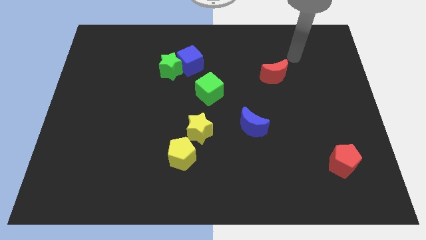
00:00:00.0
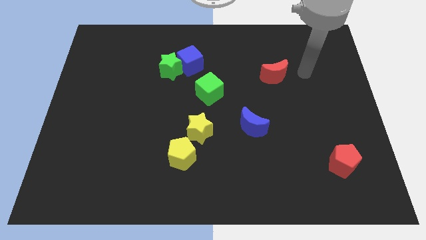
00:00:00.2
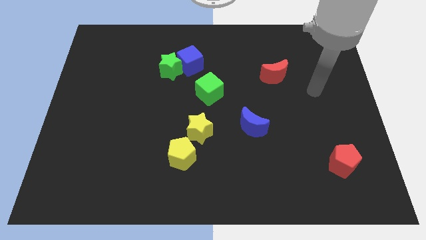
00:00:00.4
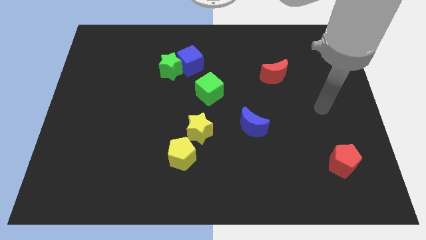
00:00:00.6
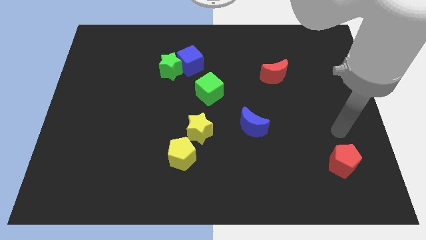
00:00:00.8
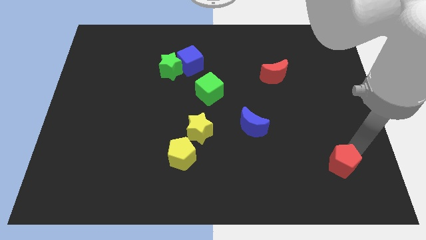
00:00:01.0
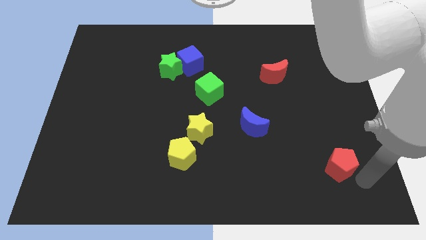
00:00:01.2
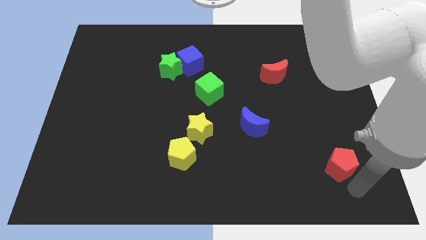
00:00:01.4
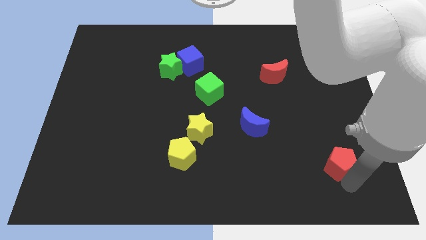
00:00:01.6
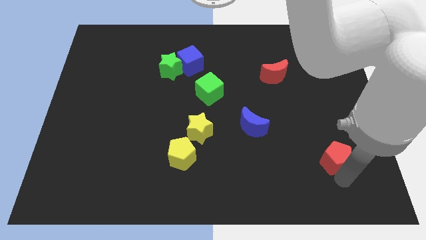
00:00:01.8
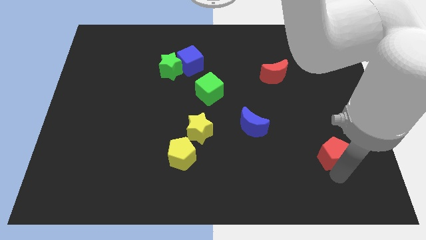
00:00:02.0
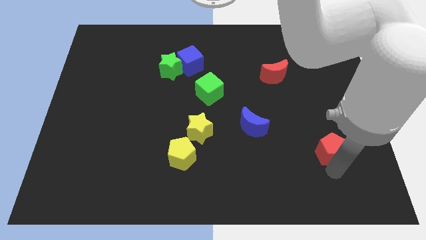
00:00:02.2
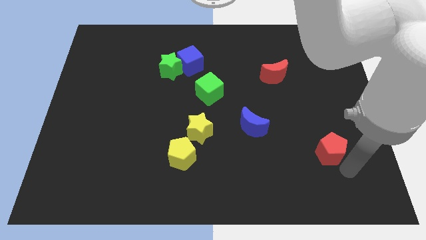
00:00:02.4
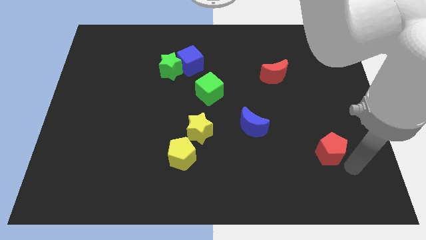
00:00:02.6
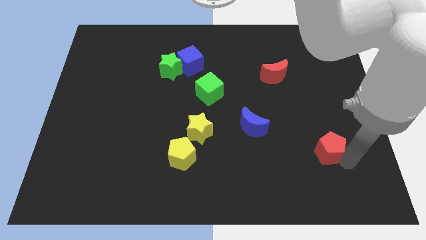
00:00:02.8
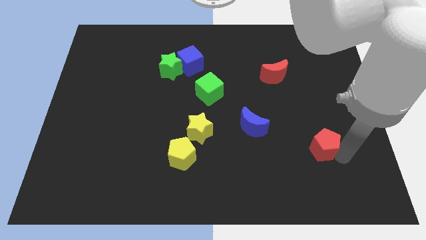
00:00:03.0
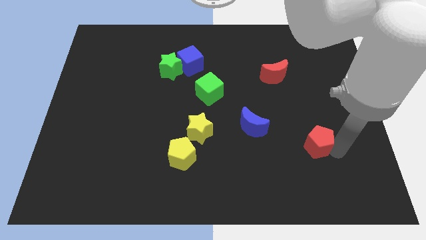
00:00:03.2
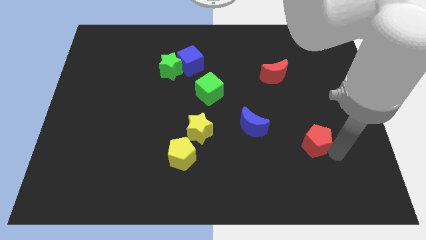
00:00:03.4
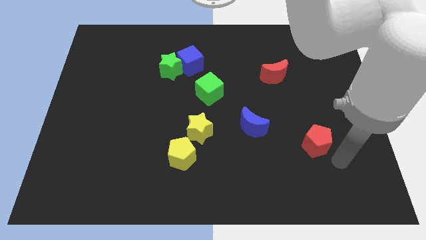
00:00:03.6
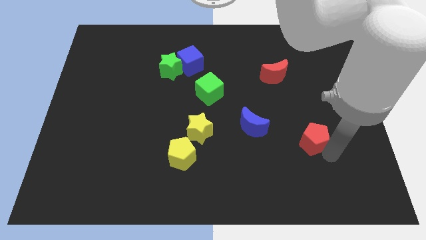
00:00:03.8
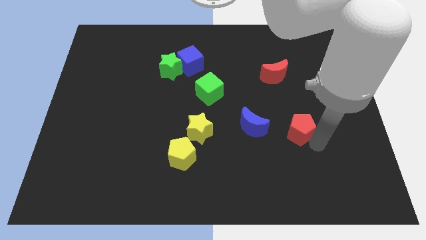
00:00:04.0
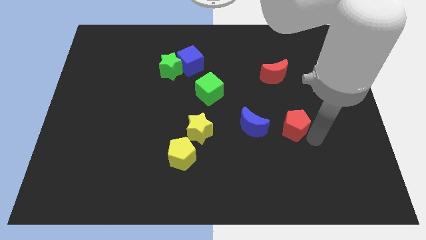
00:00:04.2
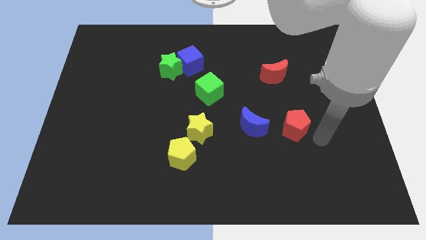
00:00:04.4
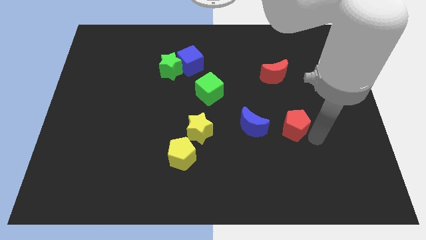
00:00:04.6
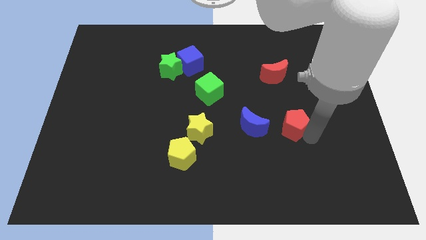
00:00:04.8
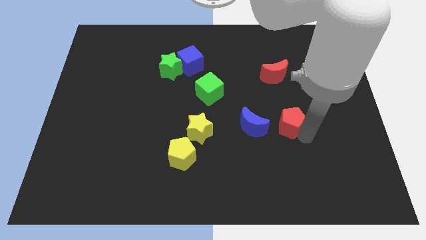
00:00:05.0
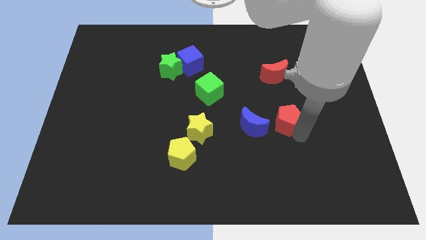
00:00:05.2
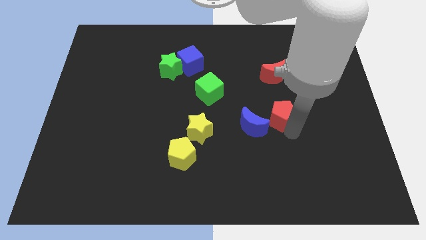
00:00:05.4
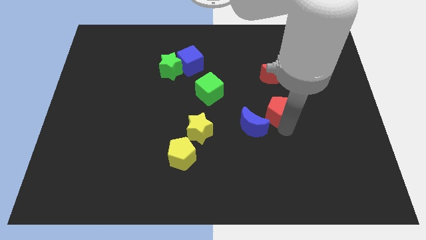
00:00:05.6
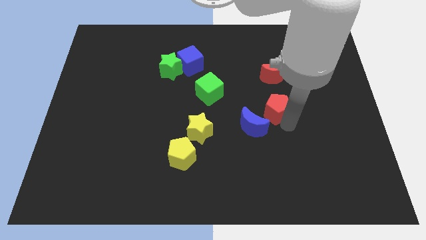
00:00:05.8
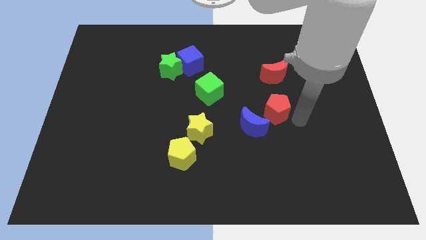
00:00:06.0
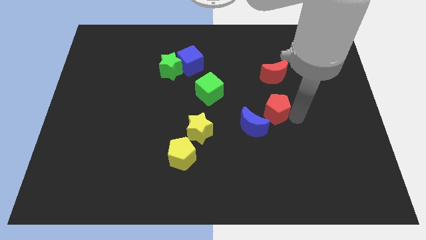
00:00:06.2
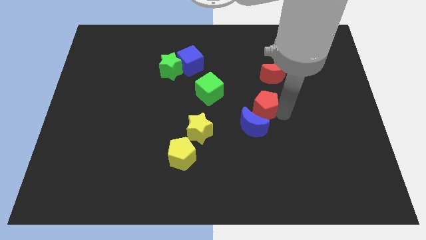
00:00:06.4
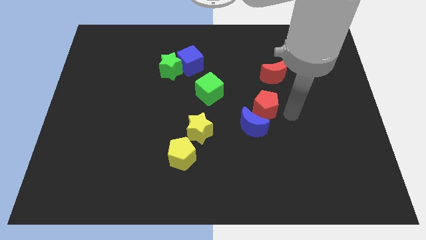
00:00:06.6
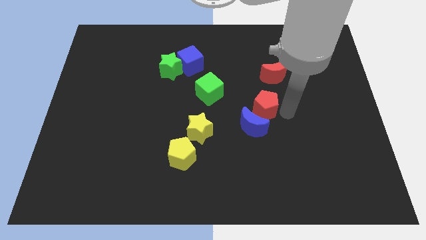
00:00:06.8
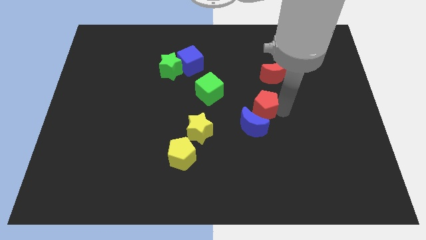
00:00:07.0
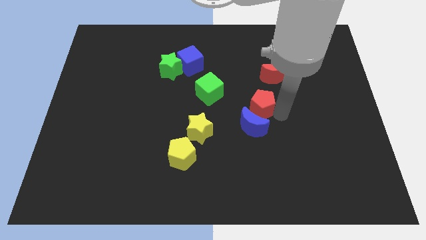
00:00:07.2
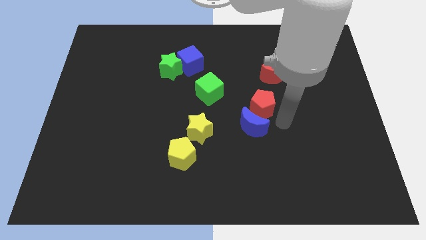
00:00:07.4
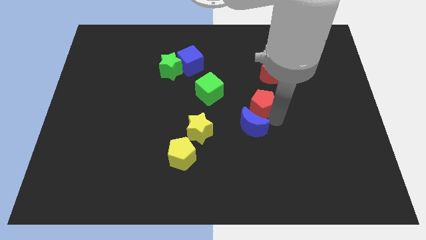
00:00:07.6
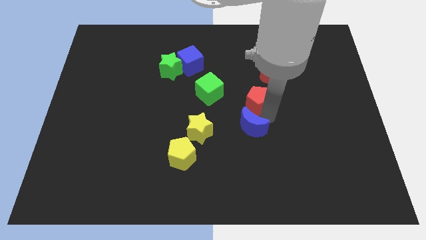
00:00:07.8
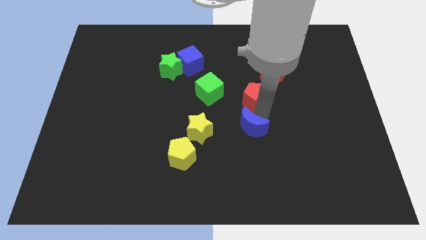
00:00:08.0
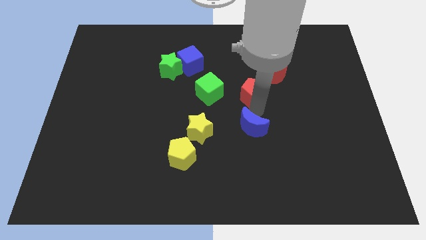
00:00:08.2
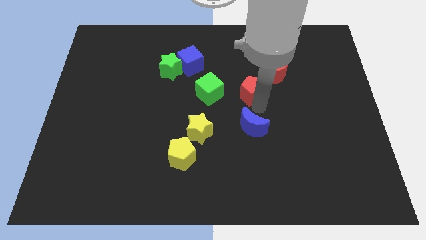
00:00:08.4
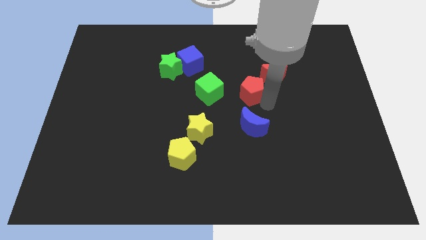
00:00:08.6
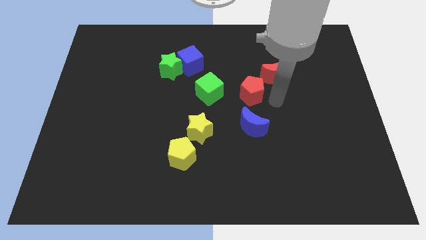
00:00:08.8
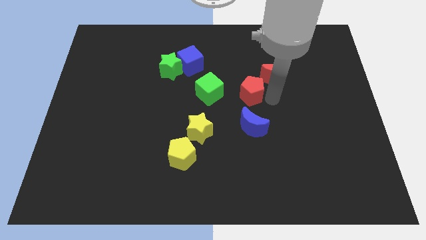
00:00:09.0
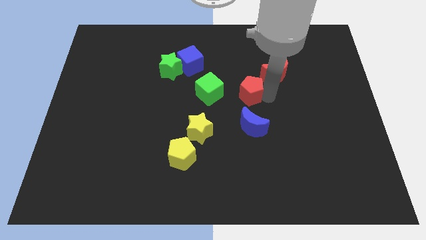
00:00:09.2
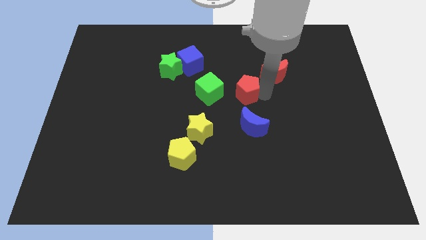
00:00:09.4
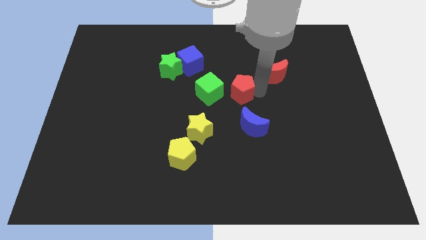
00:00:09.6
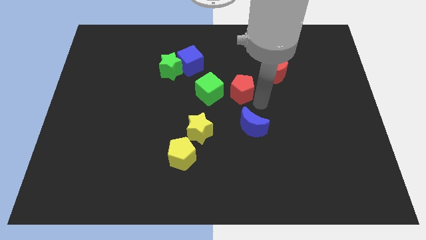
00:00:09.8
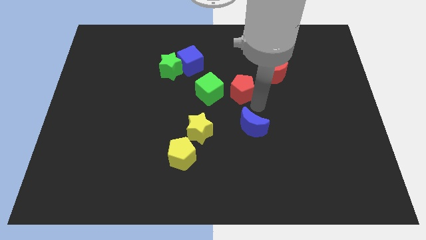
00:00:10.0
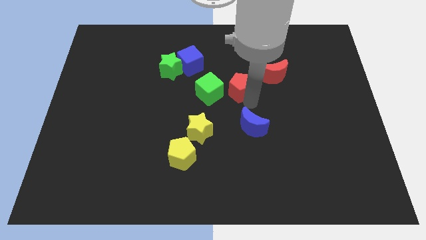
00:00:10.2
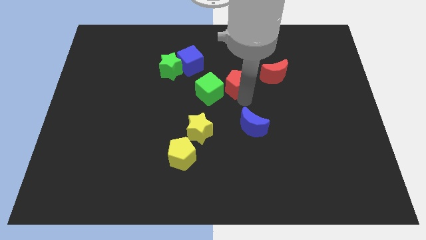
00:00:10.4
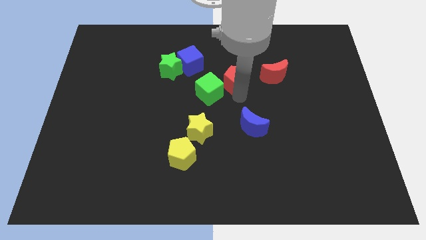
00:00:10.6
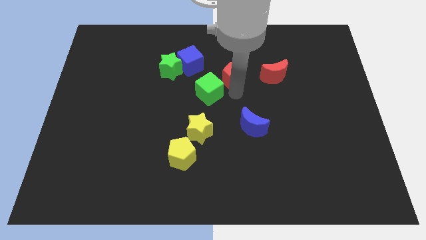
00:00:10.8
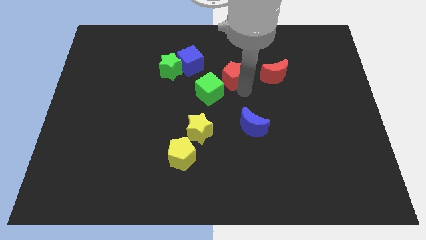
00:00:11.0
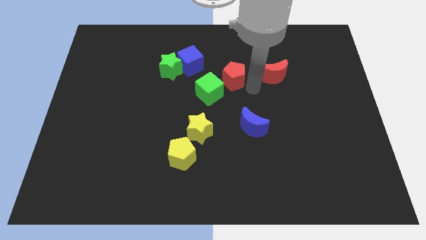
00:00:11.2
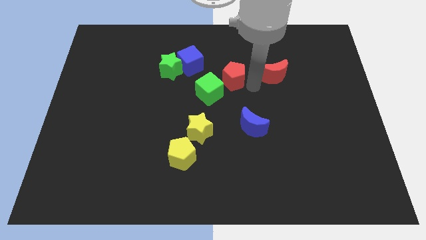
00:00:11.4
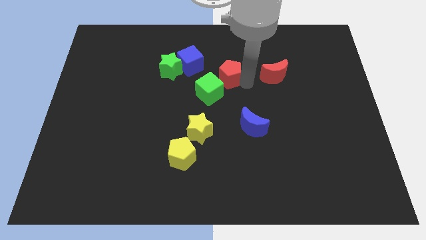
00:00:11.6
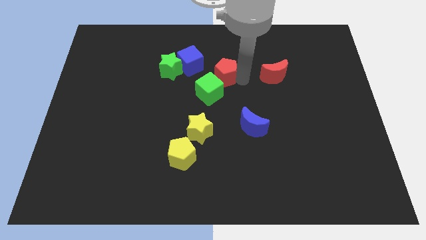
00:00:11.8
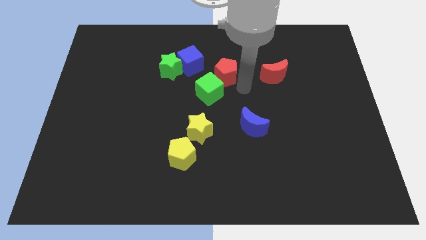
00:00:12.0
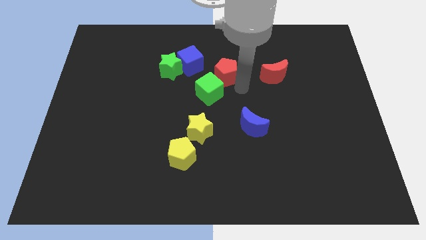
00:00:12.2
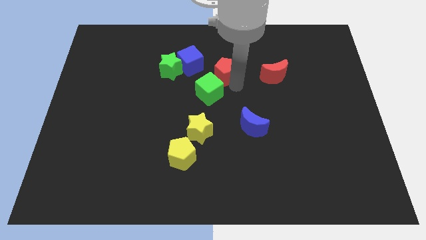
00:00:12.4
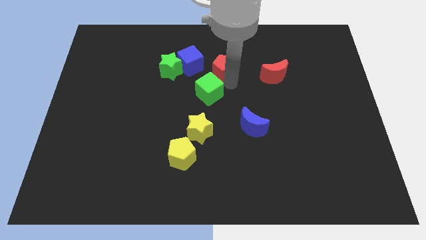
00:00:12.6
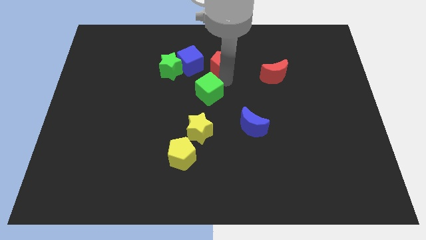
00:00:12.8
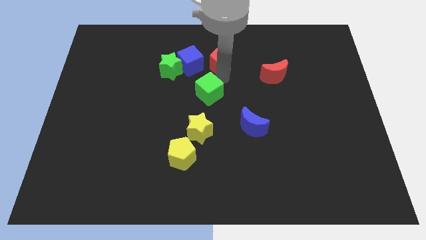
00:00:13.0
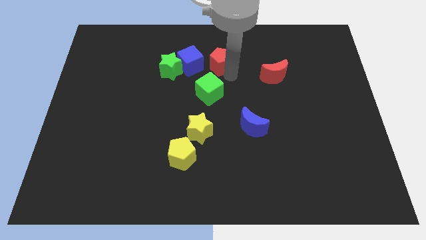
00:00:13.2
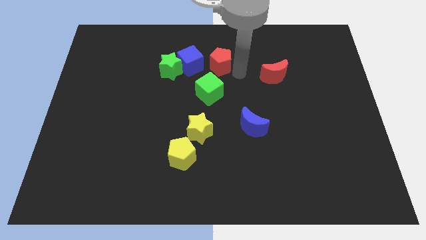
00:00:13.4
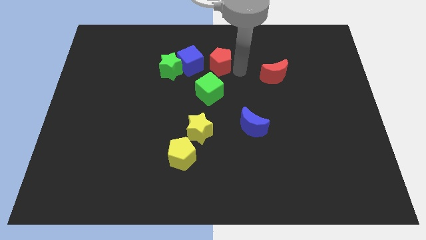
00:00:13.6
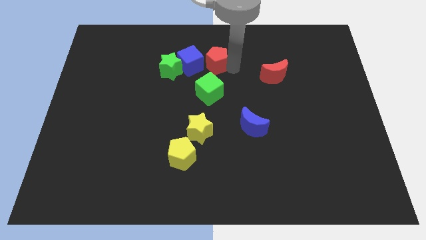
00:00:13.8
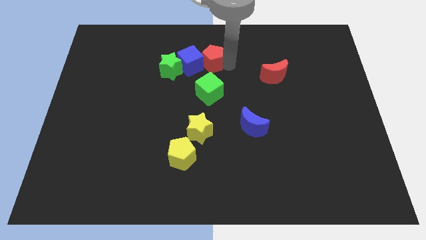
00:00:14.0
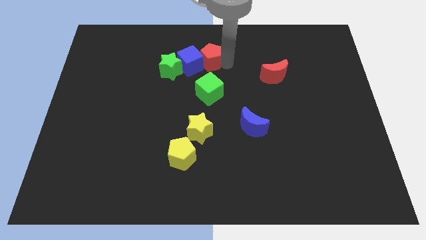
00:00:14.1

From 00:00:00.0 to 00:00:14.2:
slide the red pentagon to the top right side of the green star
